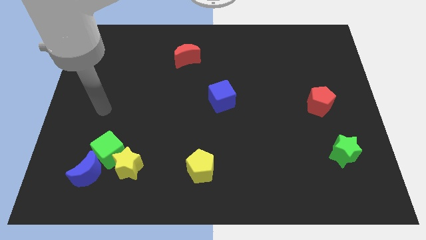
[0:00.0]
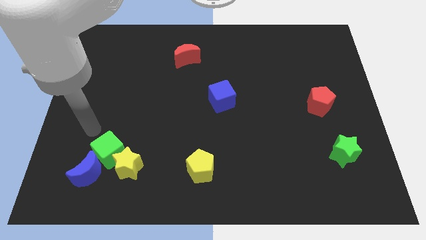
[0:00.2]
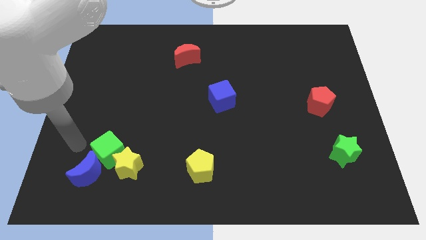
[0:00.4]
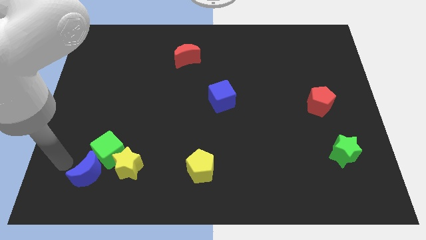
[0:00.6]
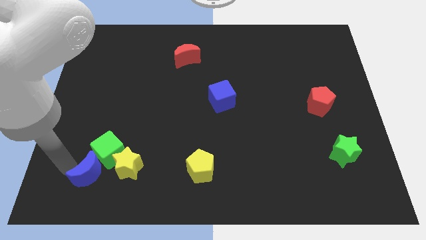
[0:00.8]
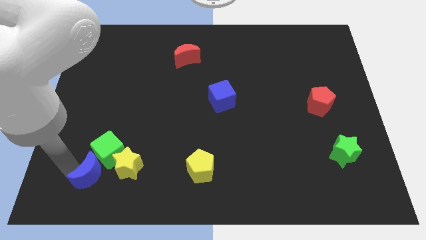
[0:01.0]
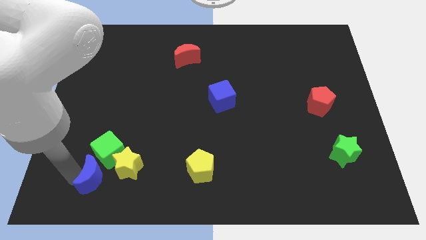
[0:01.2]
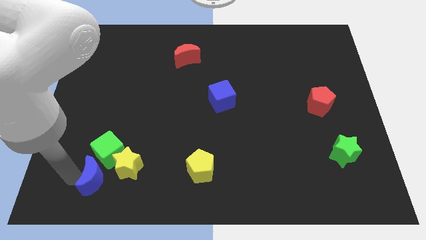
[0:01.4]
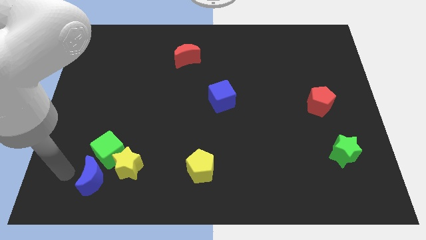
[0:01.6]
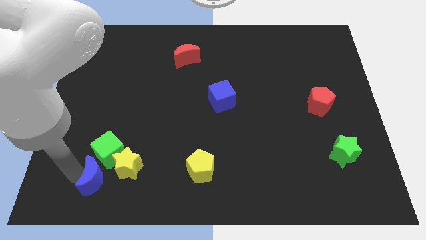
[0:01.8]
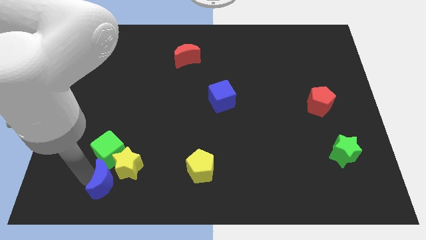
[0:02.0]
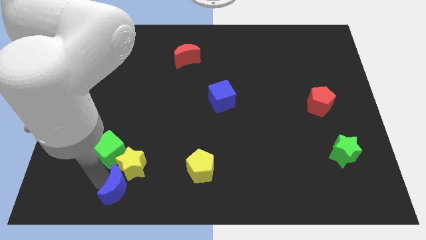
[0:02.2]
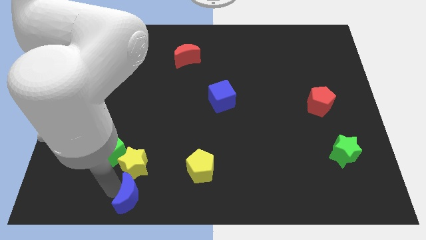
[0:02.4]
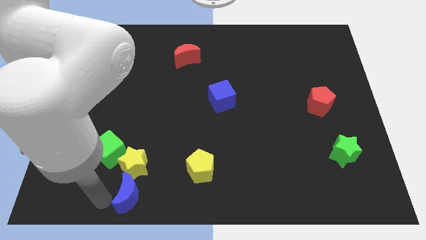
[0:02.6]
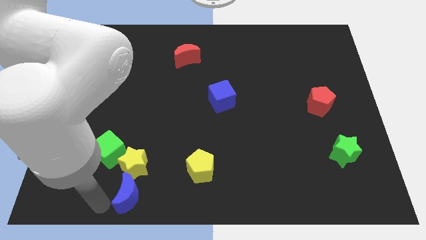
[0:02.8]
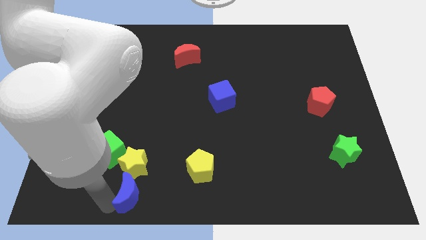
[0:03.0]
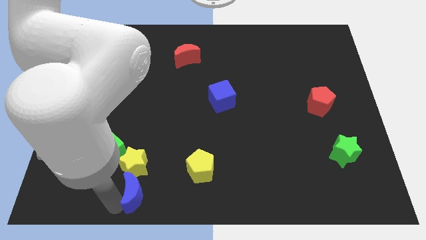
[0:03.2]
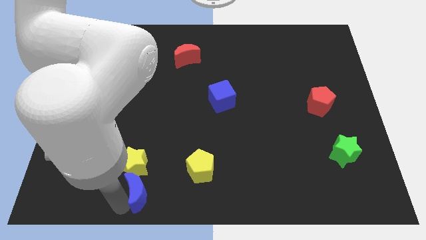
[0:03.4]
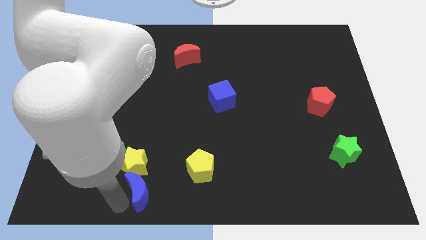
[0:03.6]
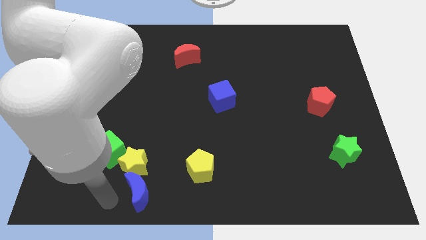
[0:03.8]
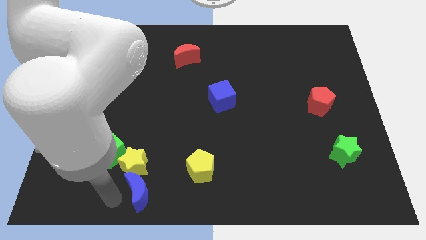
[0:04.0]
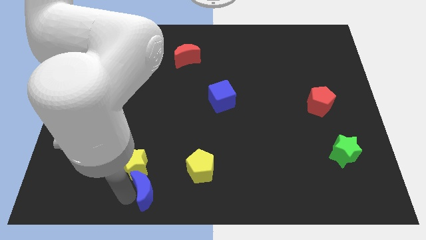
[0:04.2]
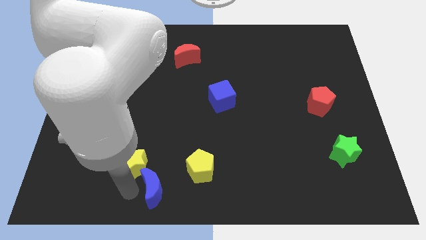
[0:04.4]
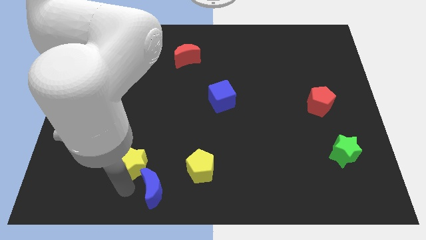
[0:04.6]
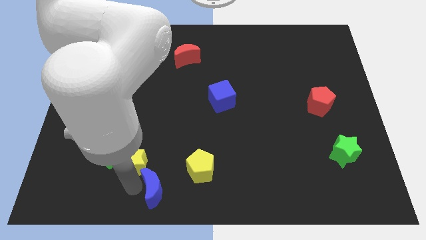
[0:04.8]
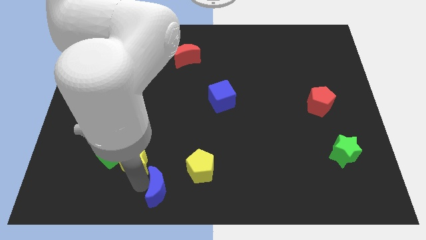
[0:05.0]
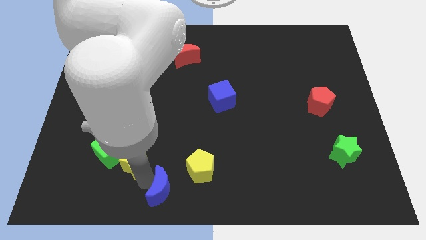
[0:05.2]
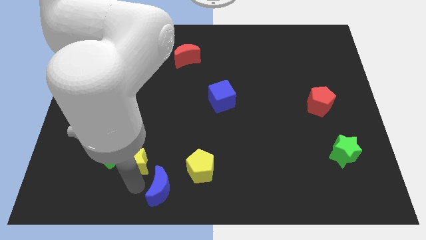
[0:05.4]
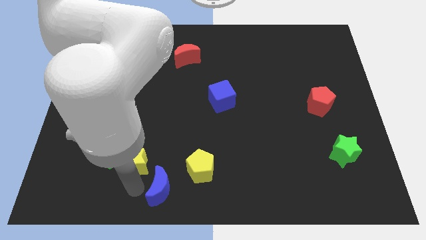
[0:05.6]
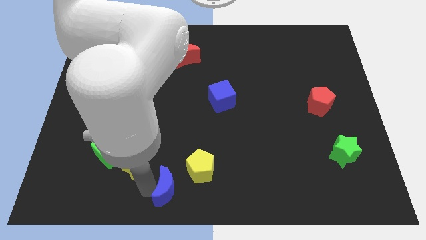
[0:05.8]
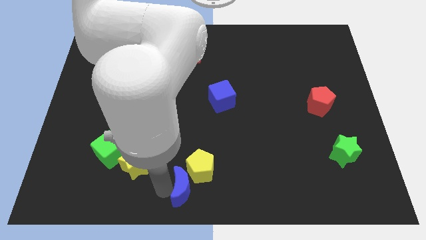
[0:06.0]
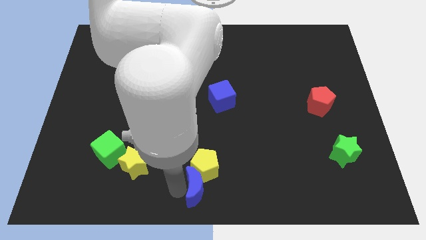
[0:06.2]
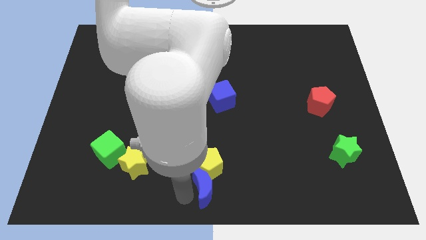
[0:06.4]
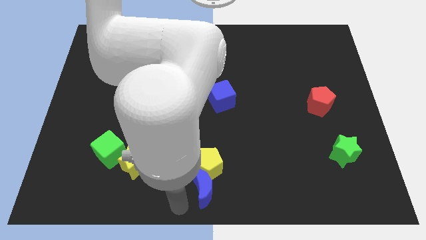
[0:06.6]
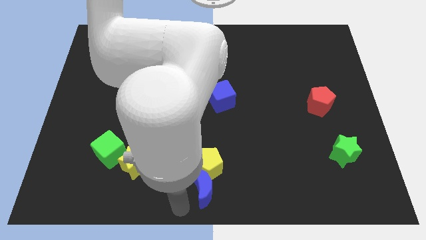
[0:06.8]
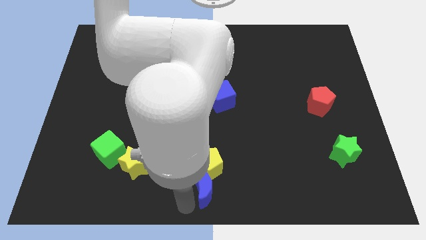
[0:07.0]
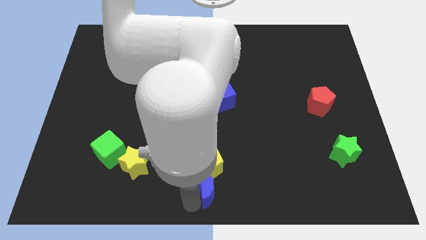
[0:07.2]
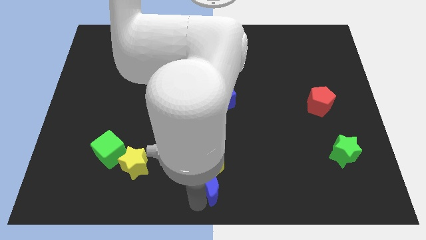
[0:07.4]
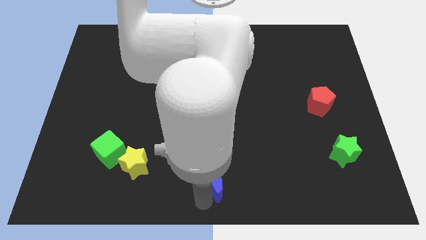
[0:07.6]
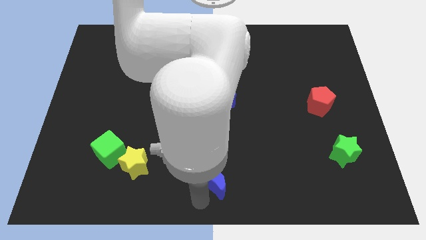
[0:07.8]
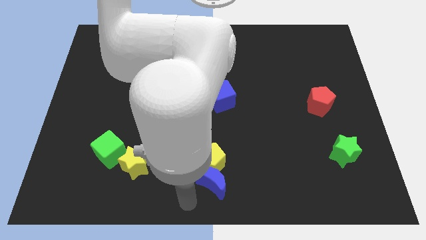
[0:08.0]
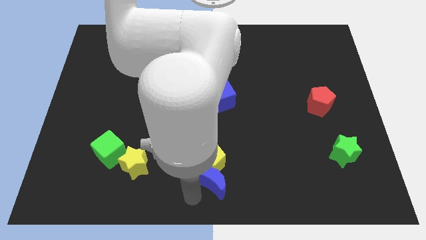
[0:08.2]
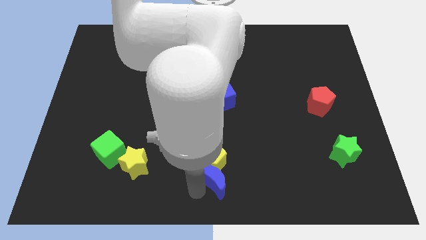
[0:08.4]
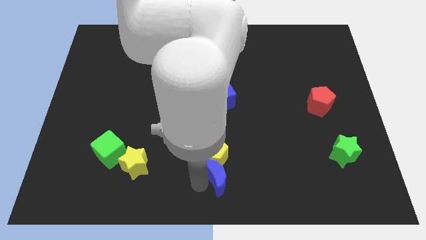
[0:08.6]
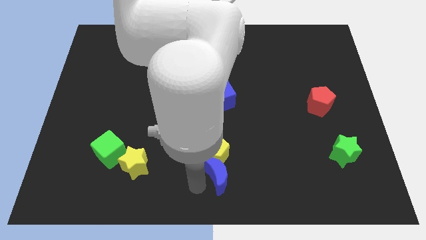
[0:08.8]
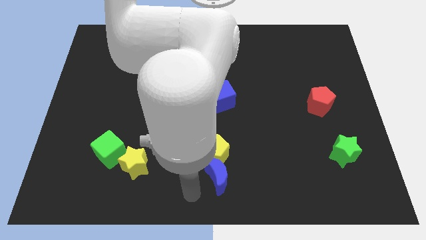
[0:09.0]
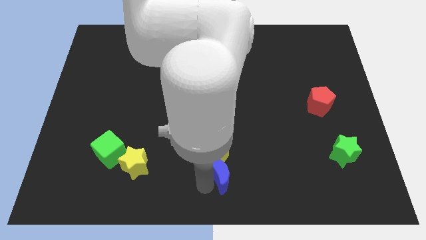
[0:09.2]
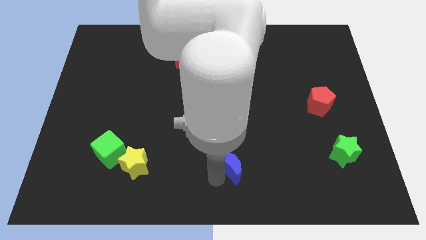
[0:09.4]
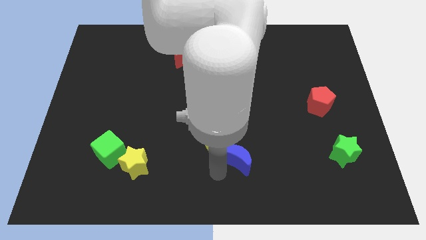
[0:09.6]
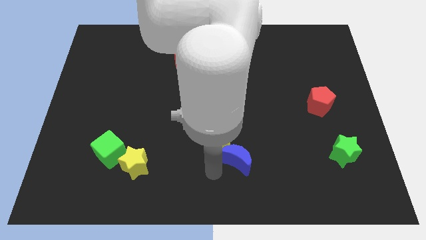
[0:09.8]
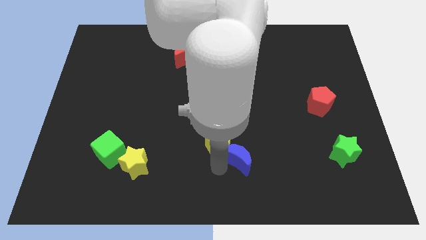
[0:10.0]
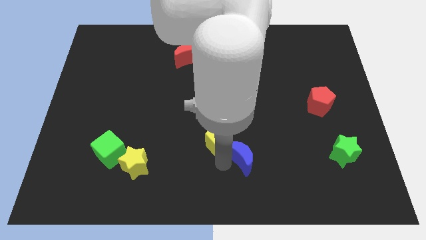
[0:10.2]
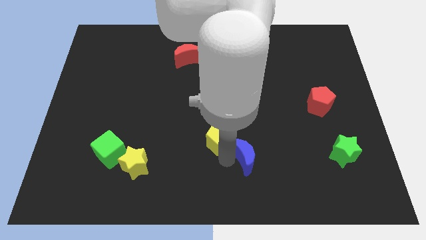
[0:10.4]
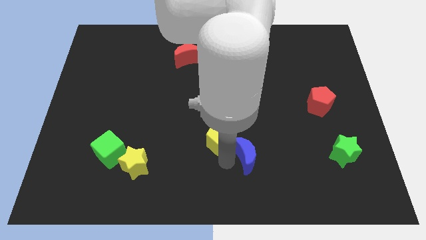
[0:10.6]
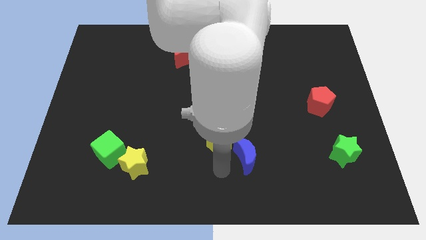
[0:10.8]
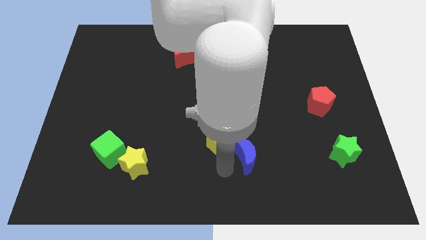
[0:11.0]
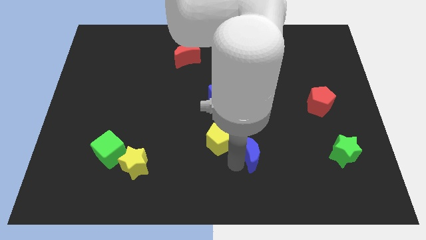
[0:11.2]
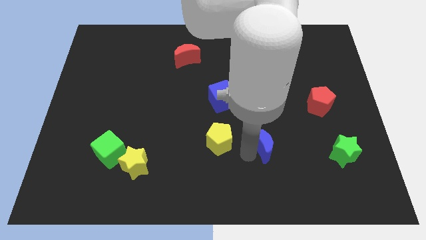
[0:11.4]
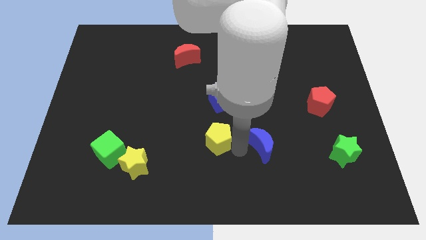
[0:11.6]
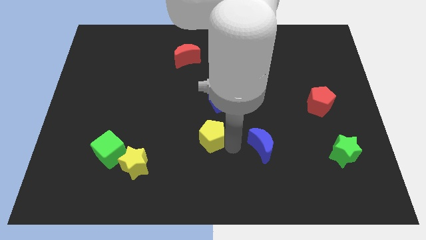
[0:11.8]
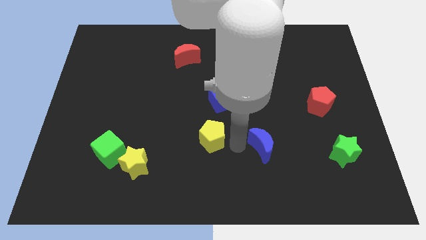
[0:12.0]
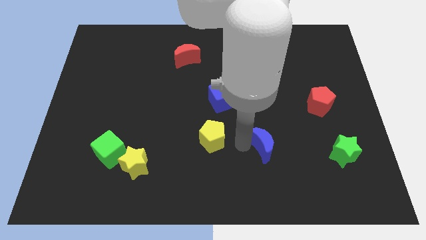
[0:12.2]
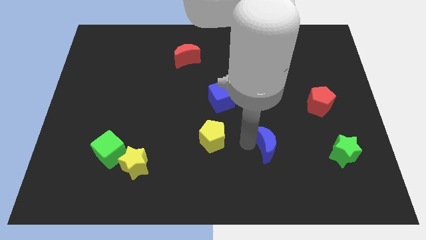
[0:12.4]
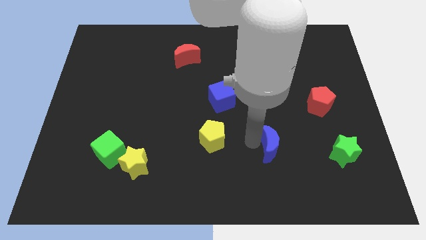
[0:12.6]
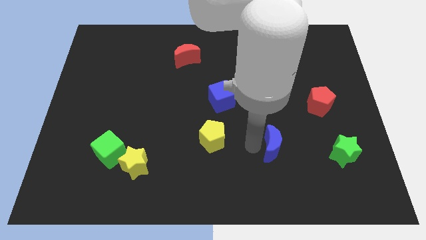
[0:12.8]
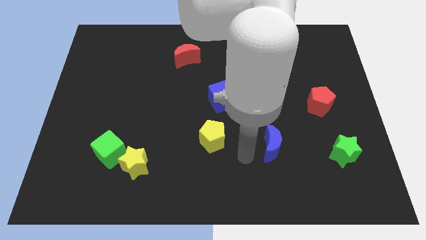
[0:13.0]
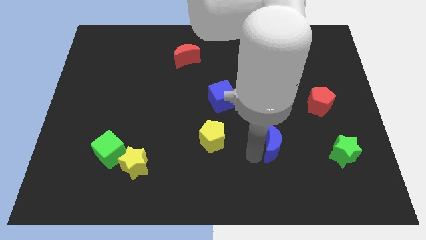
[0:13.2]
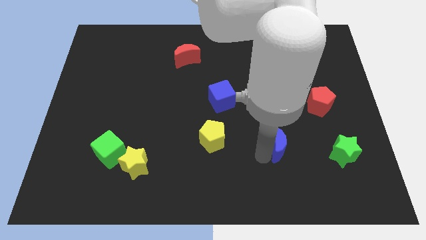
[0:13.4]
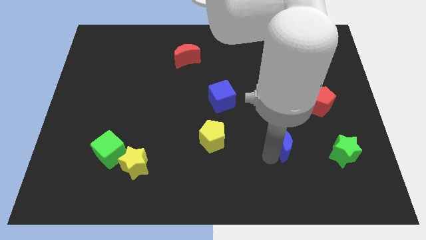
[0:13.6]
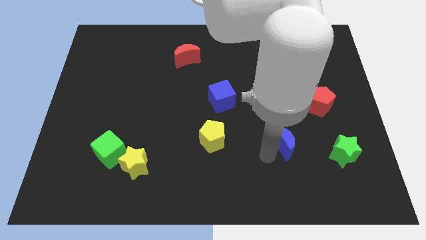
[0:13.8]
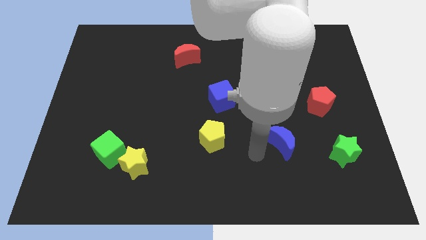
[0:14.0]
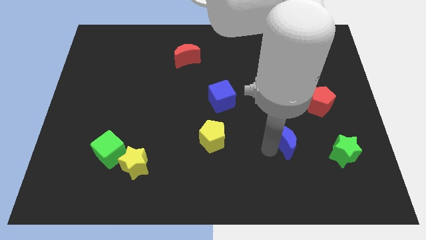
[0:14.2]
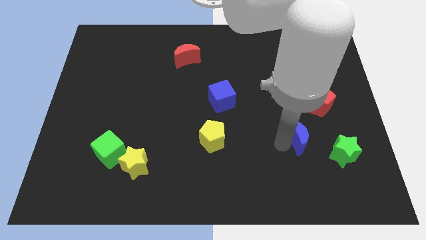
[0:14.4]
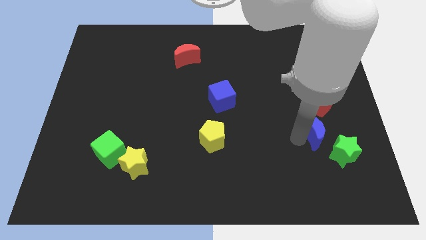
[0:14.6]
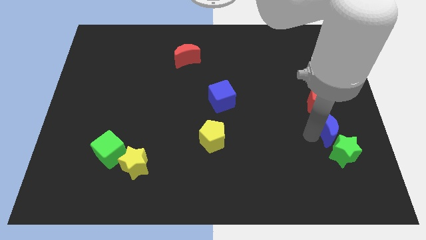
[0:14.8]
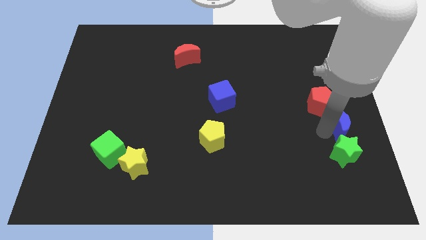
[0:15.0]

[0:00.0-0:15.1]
push the blue moon to the right side
